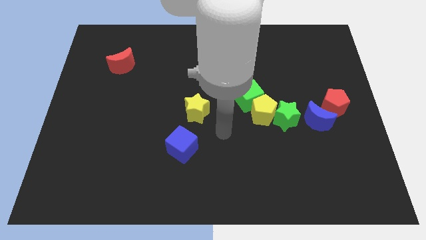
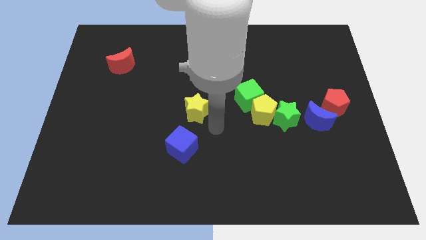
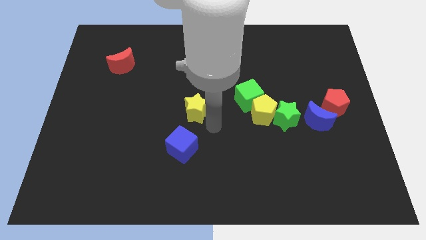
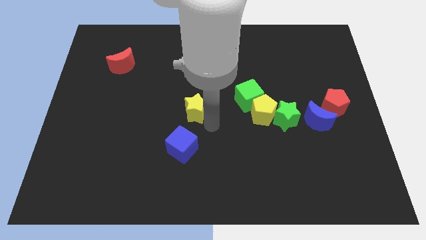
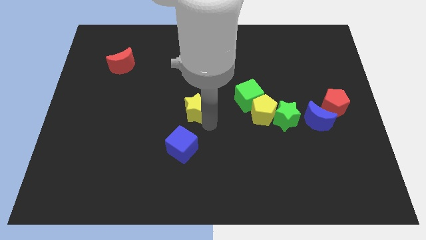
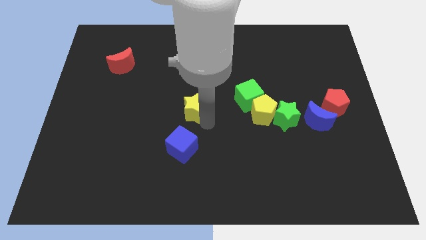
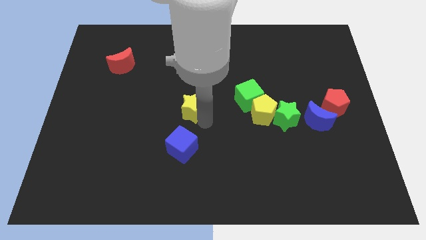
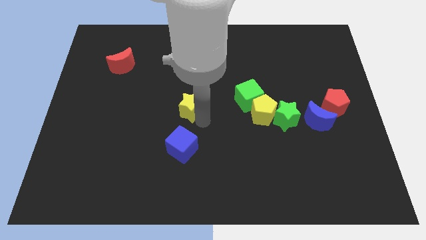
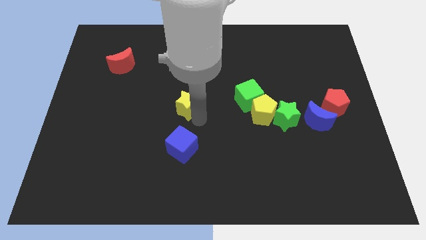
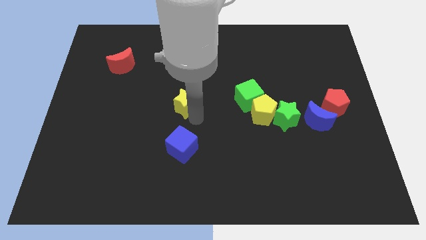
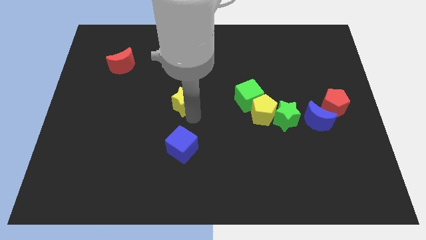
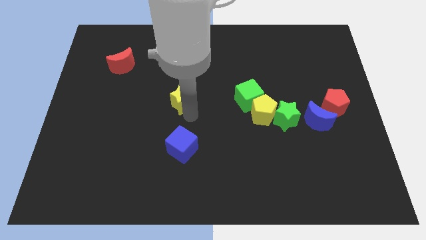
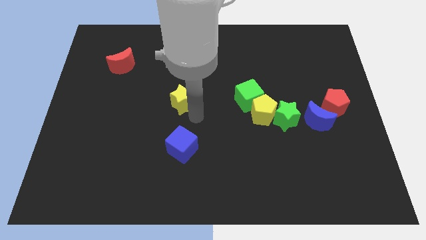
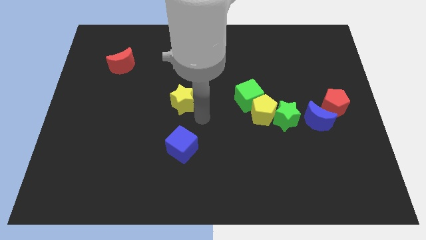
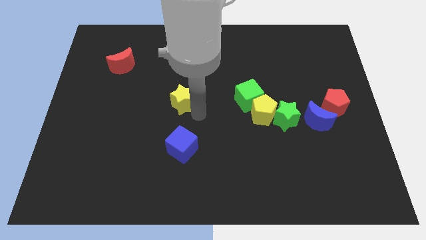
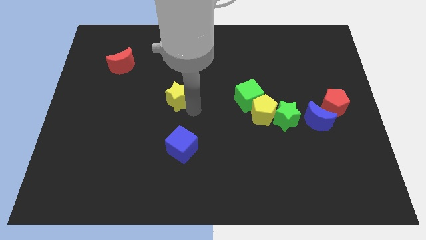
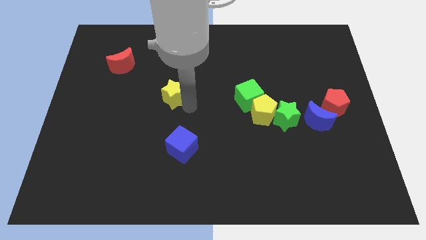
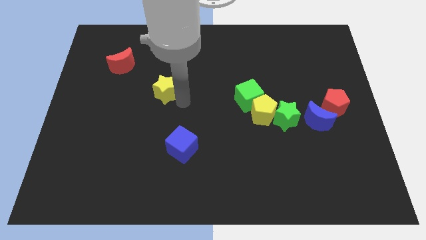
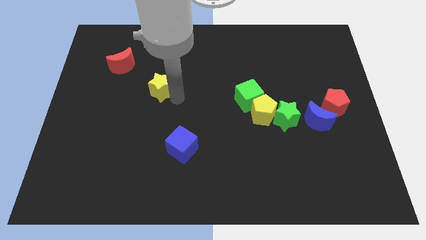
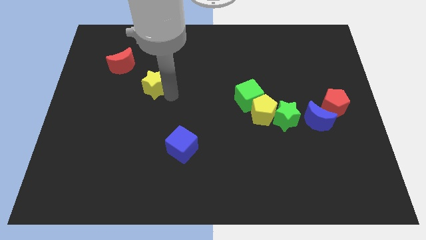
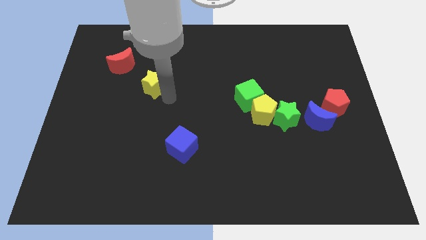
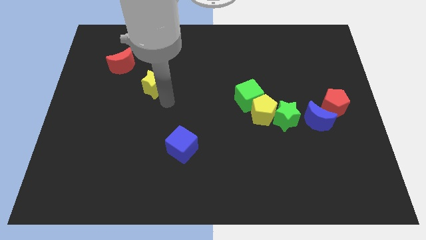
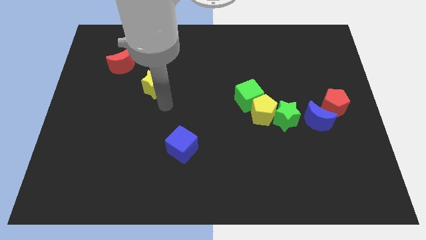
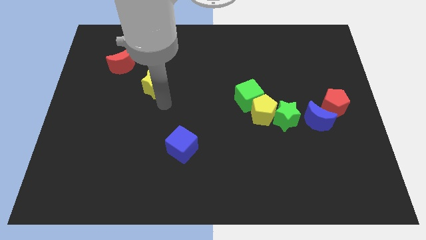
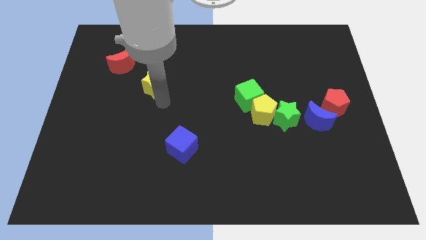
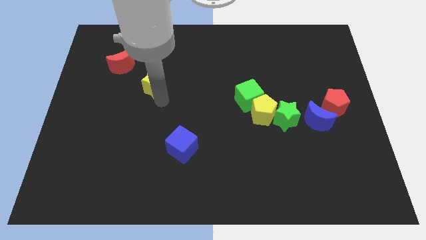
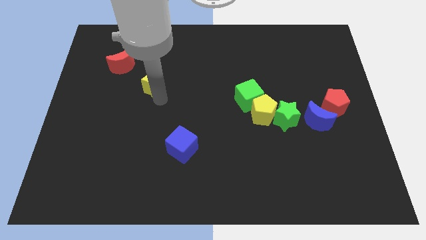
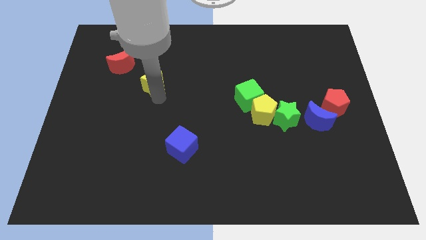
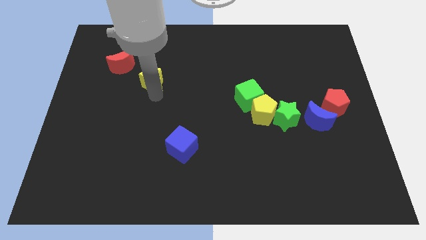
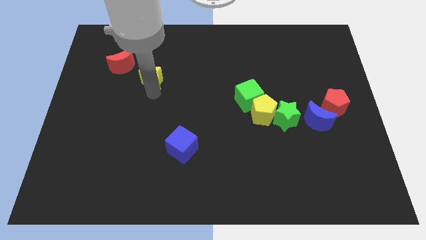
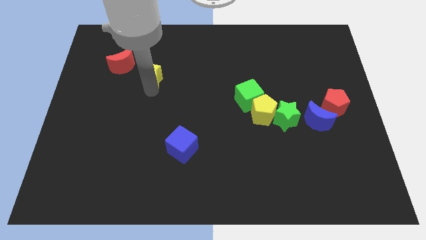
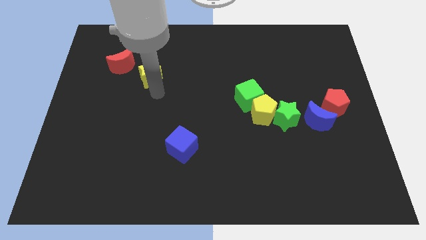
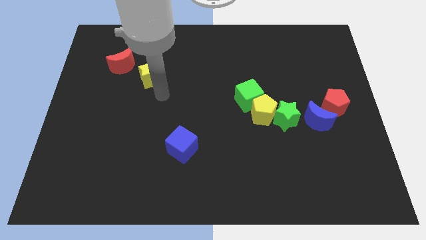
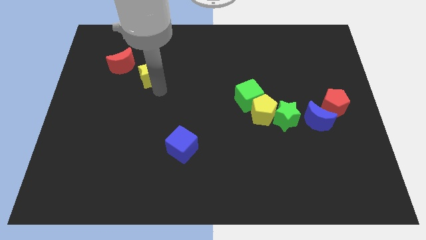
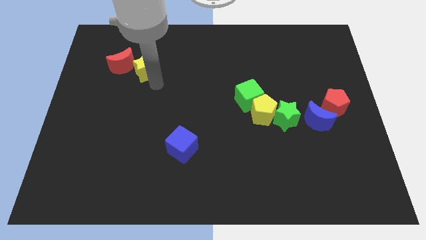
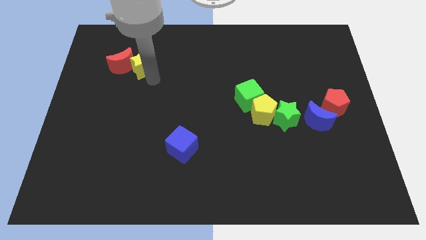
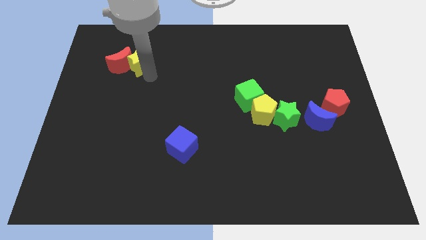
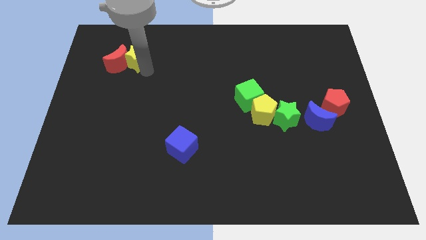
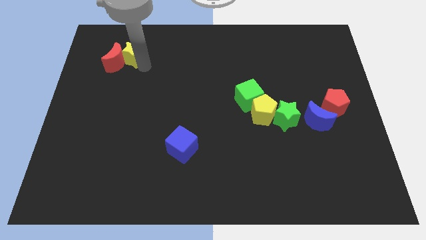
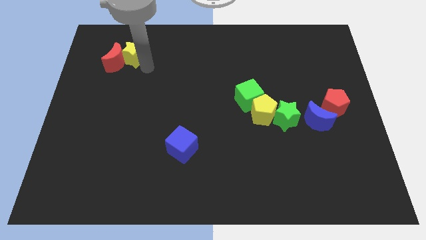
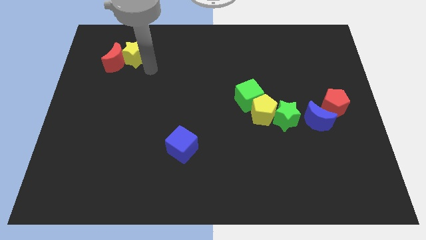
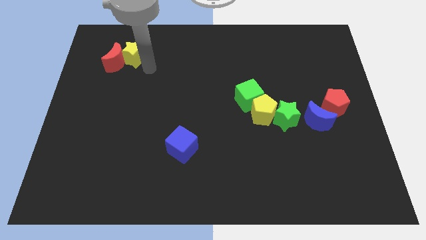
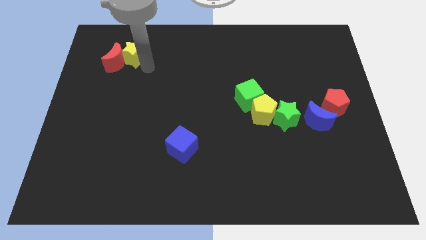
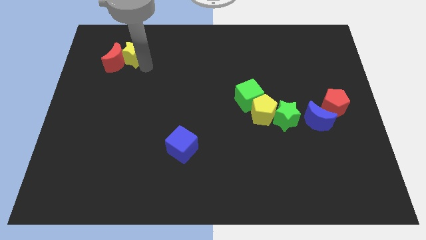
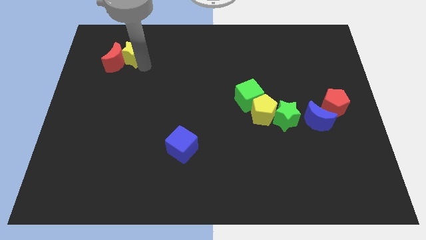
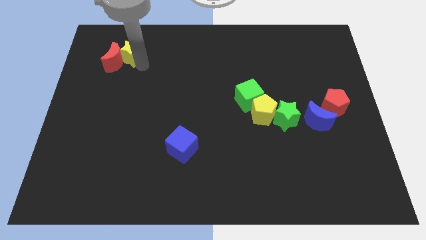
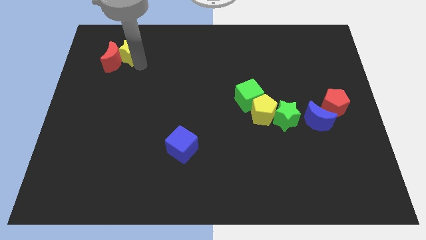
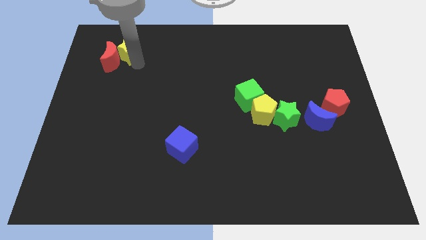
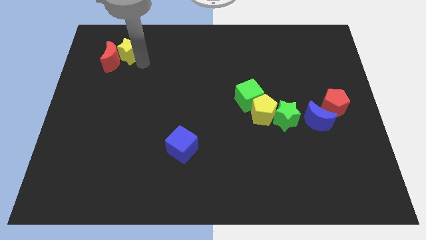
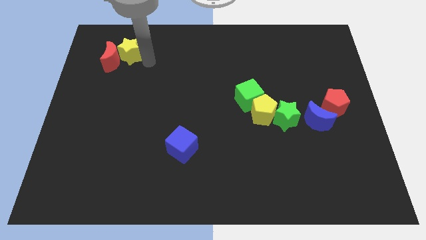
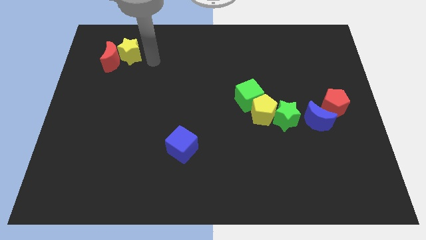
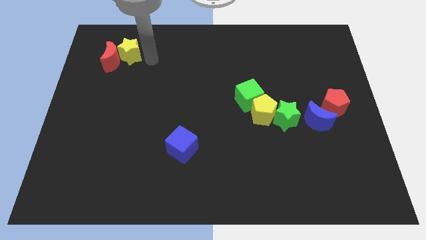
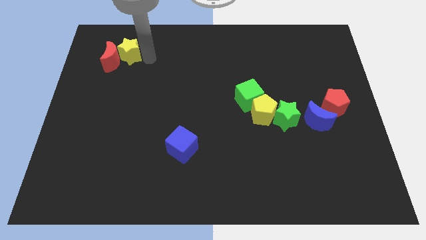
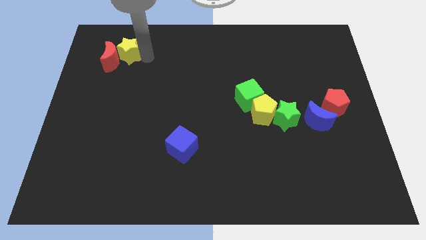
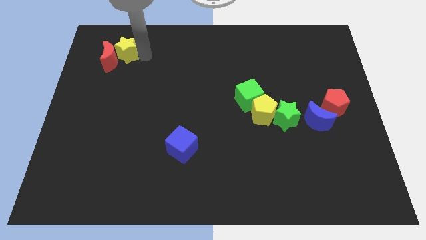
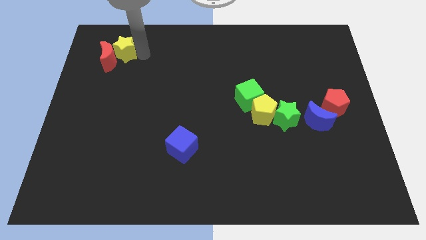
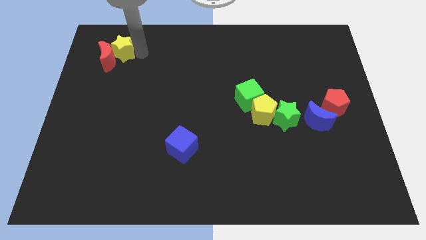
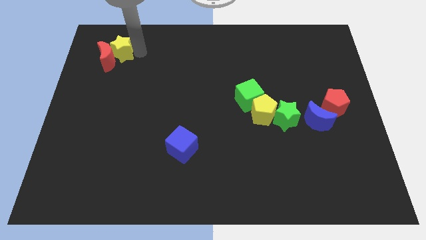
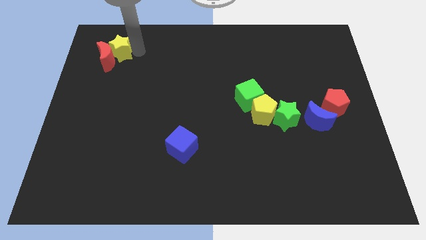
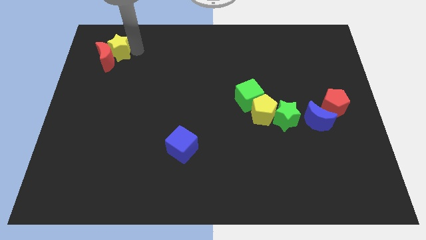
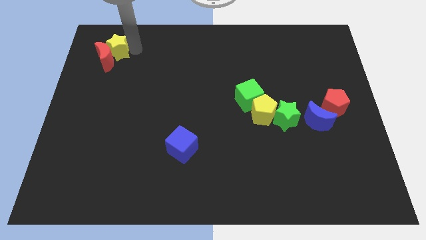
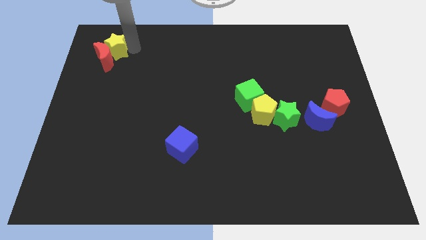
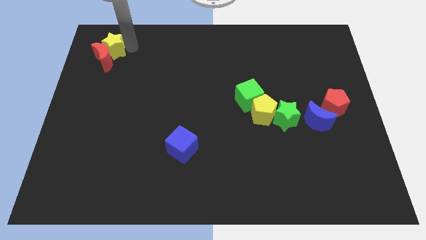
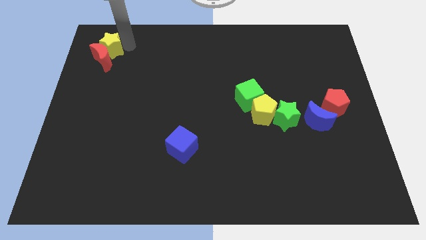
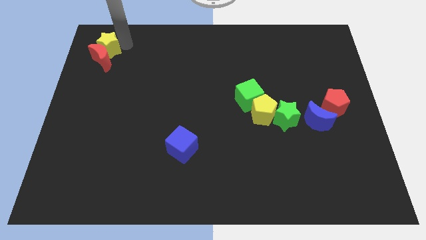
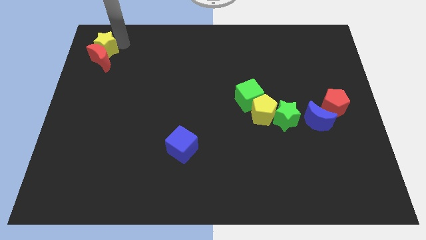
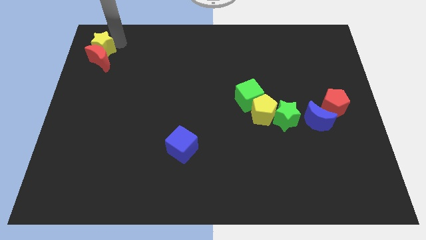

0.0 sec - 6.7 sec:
move the yellow star to the top left corner
